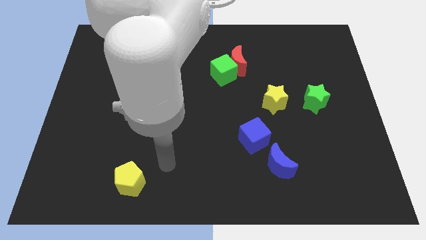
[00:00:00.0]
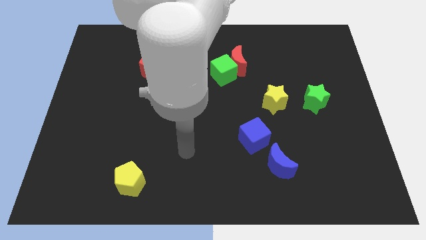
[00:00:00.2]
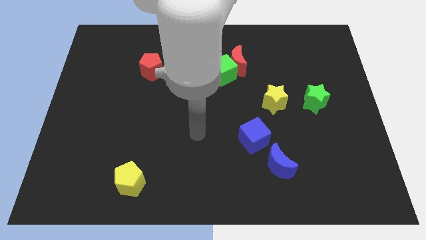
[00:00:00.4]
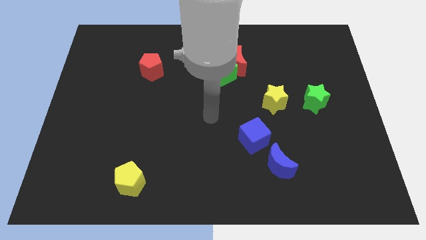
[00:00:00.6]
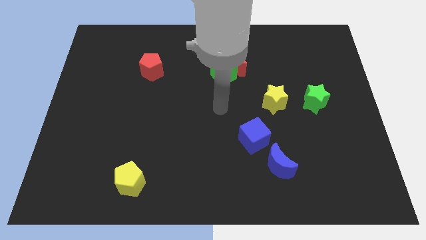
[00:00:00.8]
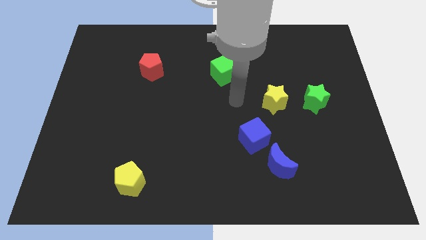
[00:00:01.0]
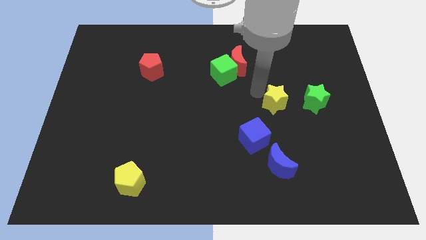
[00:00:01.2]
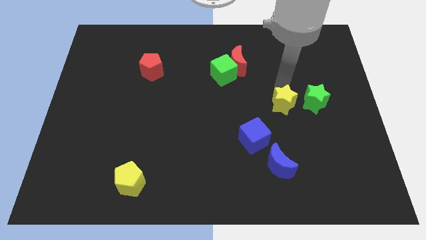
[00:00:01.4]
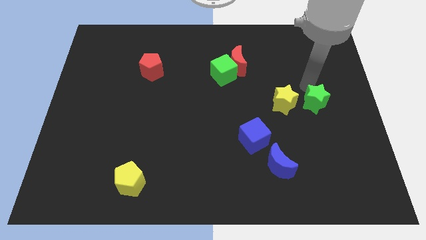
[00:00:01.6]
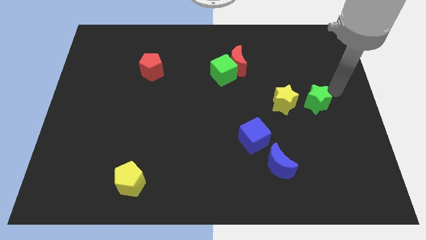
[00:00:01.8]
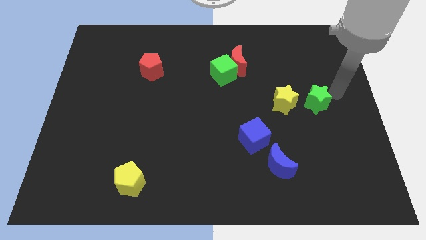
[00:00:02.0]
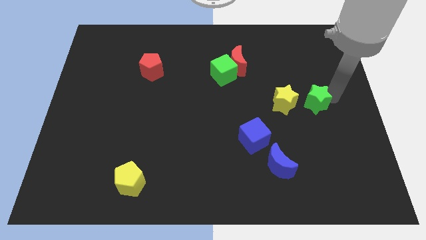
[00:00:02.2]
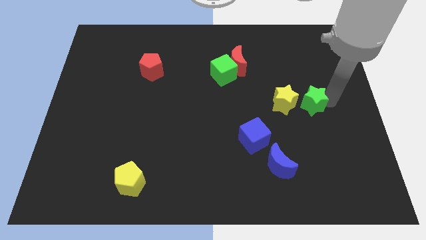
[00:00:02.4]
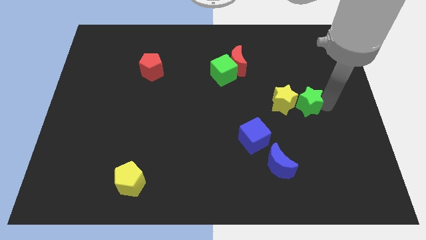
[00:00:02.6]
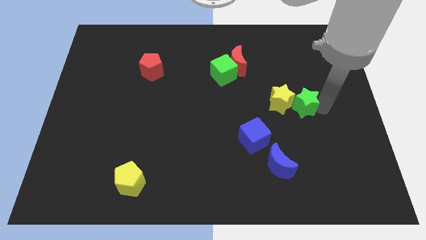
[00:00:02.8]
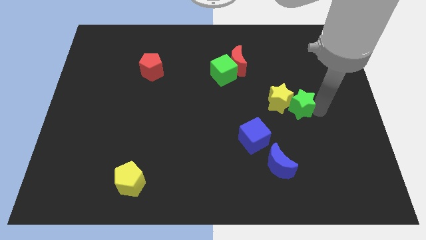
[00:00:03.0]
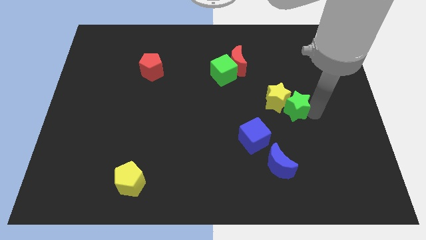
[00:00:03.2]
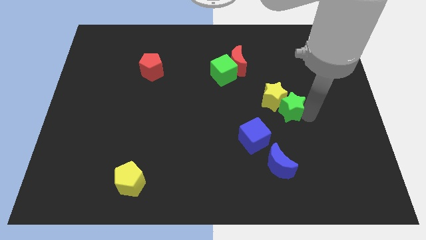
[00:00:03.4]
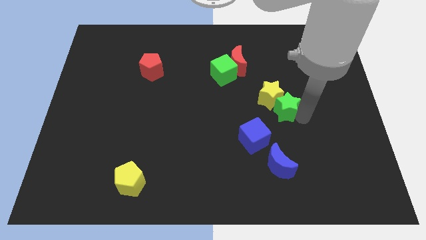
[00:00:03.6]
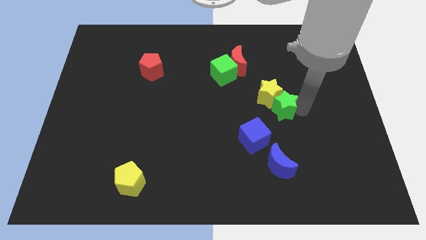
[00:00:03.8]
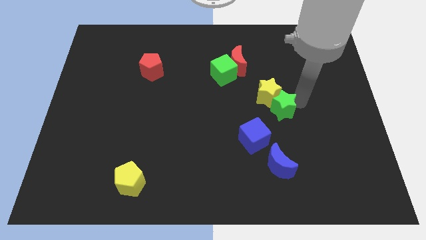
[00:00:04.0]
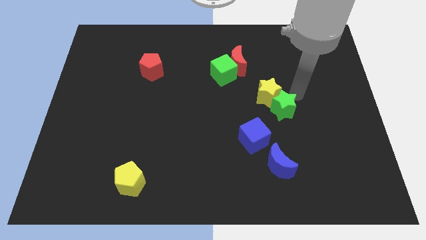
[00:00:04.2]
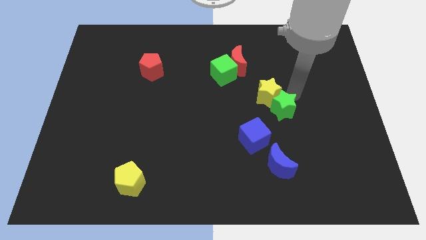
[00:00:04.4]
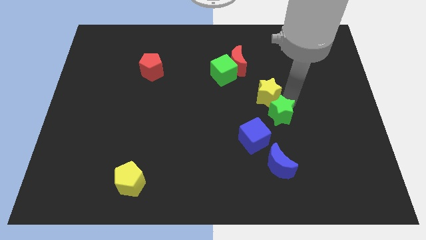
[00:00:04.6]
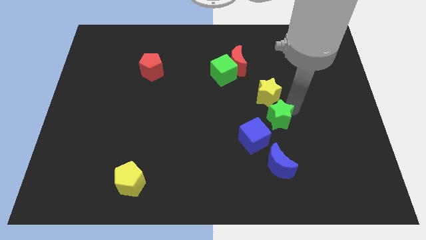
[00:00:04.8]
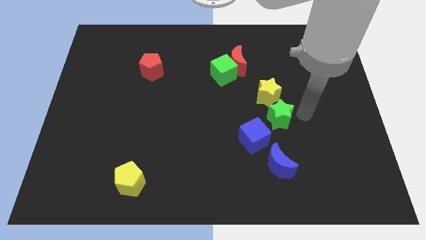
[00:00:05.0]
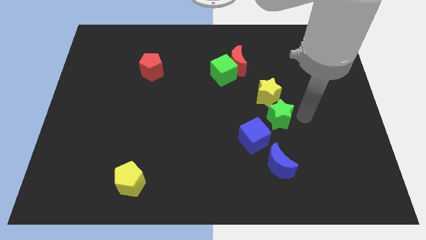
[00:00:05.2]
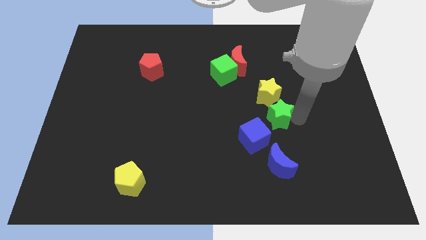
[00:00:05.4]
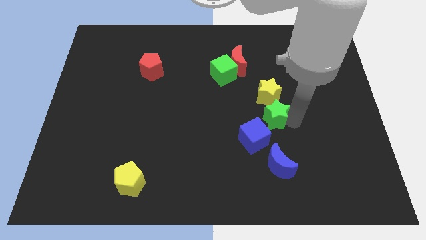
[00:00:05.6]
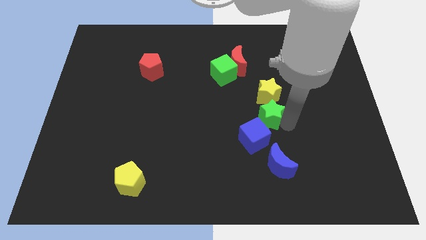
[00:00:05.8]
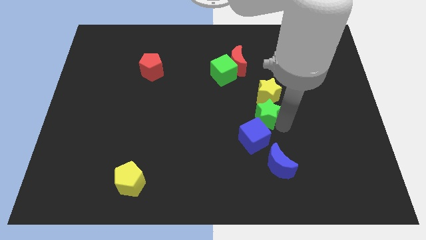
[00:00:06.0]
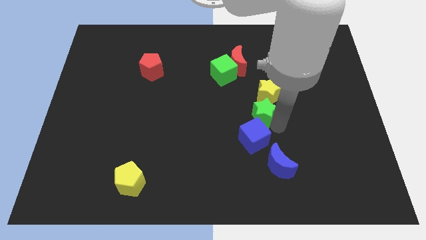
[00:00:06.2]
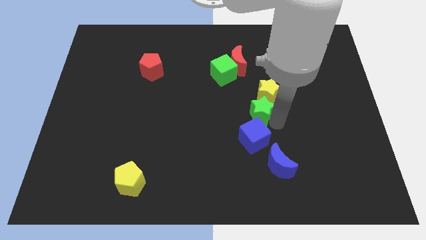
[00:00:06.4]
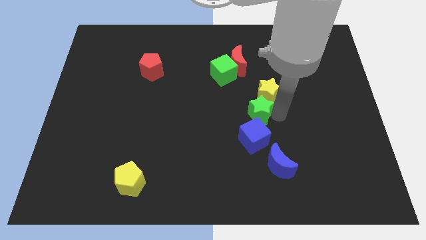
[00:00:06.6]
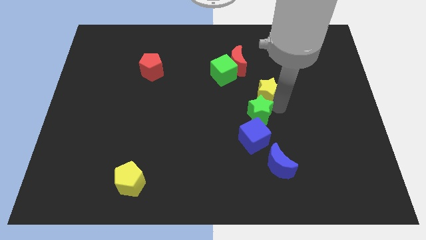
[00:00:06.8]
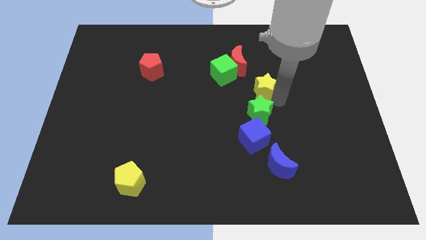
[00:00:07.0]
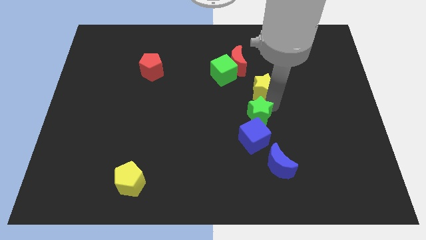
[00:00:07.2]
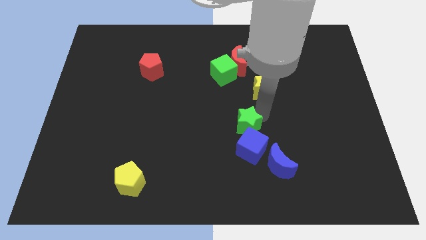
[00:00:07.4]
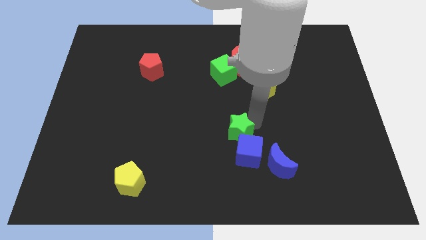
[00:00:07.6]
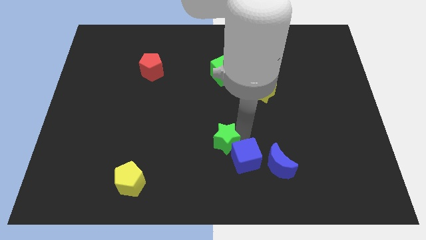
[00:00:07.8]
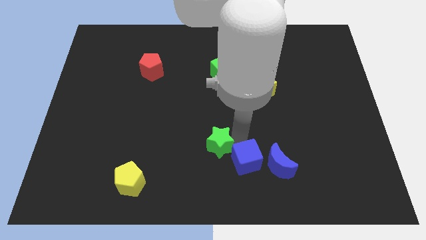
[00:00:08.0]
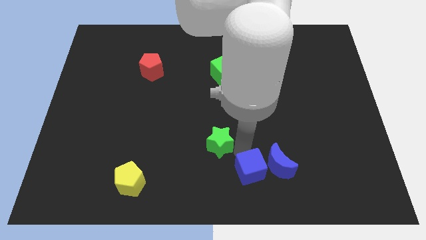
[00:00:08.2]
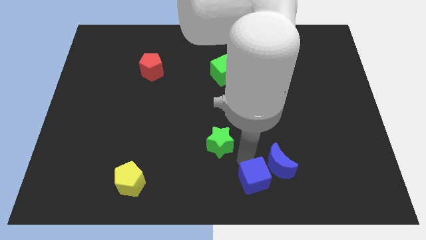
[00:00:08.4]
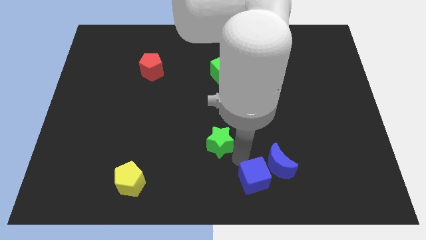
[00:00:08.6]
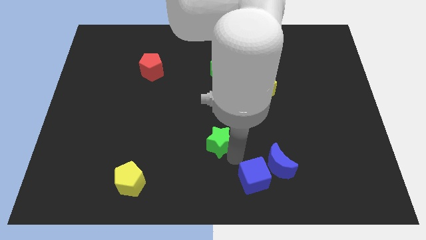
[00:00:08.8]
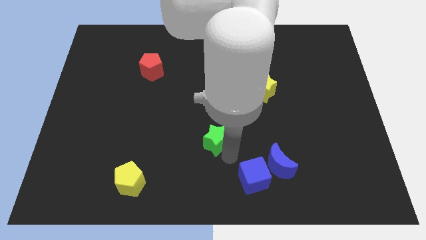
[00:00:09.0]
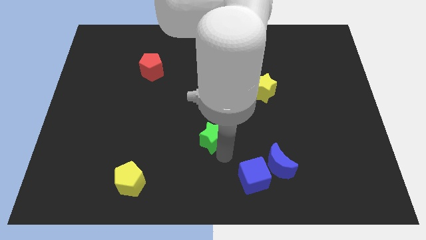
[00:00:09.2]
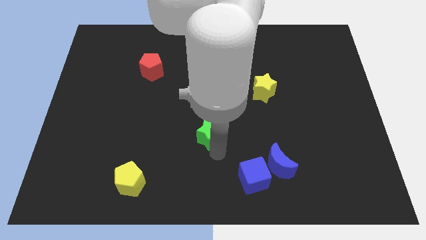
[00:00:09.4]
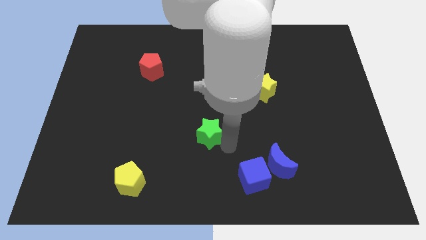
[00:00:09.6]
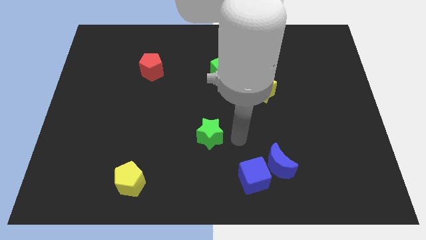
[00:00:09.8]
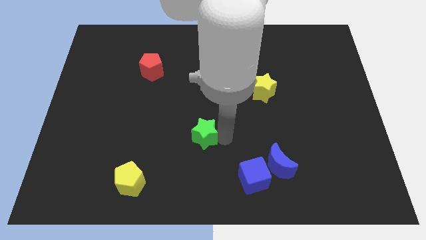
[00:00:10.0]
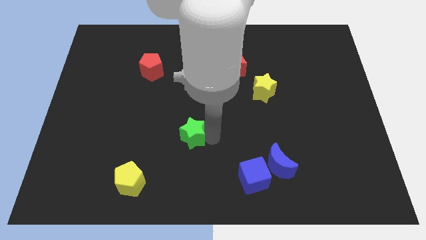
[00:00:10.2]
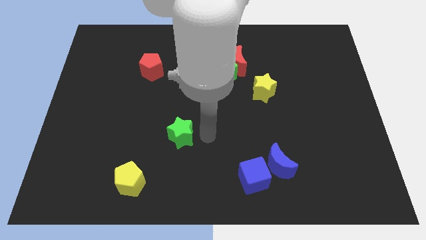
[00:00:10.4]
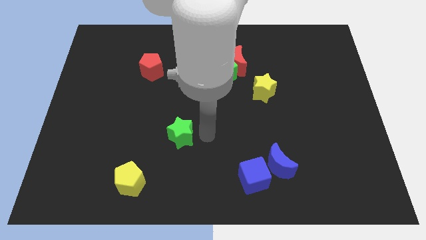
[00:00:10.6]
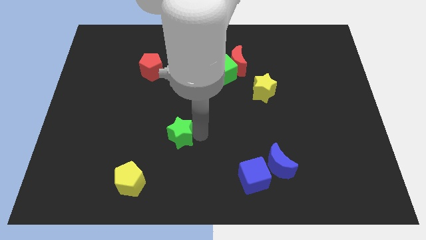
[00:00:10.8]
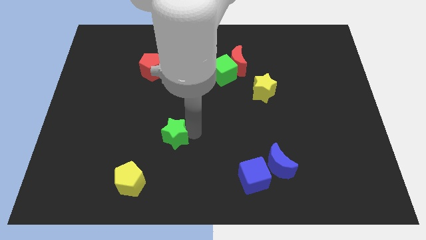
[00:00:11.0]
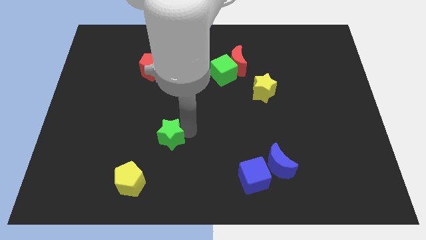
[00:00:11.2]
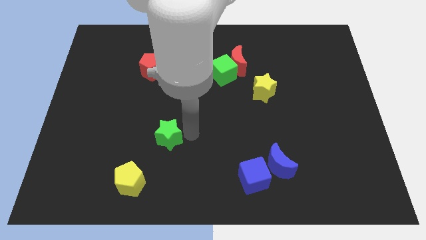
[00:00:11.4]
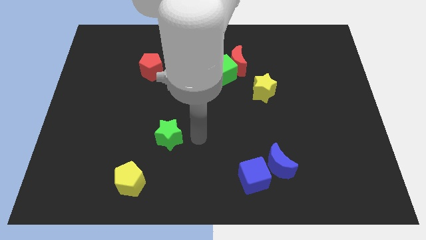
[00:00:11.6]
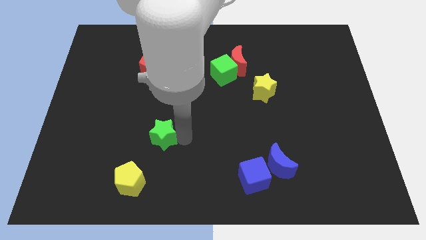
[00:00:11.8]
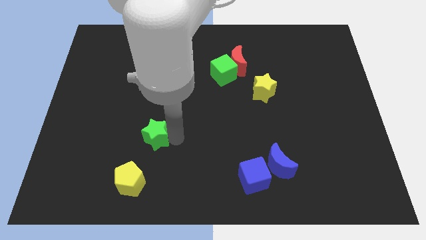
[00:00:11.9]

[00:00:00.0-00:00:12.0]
move the green star above the yellow pentagon
